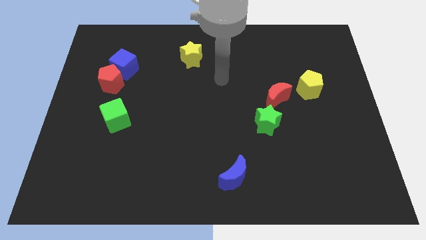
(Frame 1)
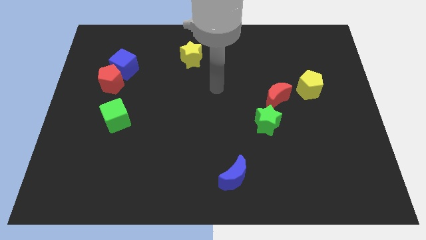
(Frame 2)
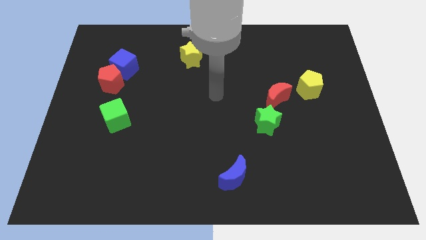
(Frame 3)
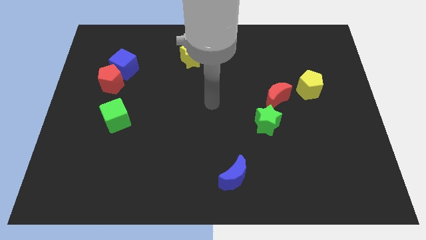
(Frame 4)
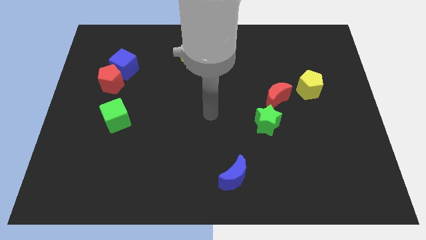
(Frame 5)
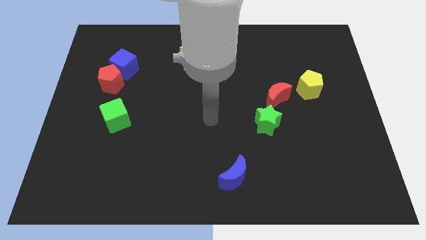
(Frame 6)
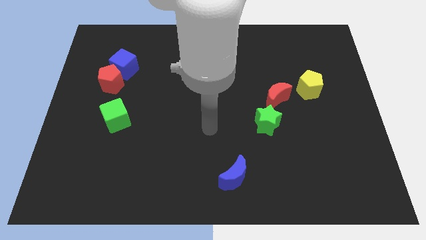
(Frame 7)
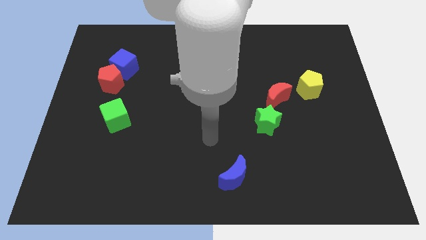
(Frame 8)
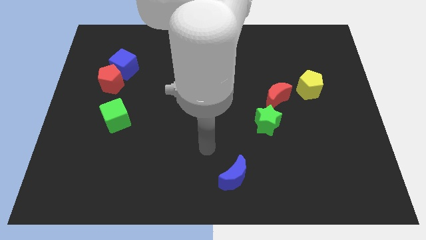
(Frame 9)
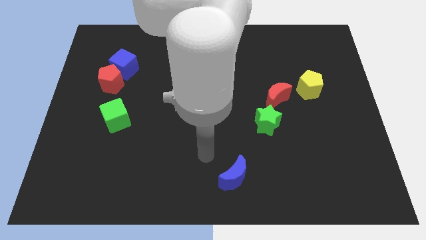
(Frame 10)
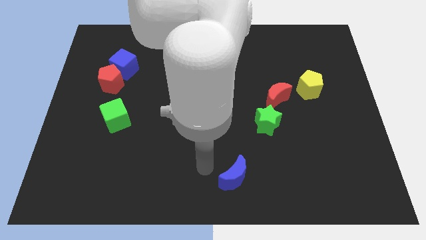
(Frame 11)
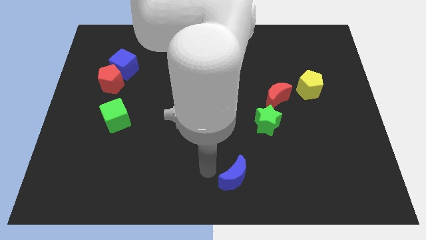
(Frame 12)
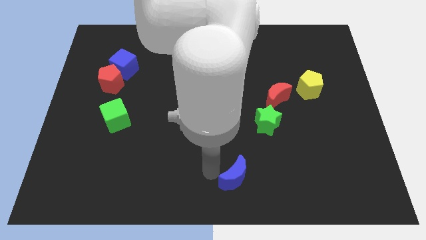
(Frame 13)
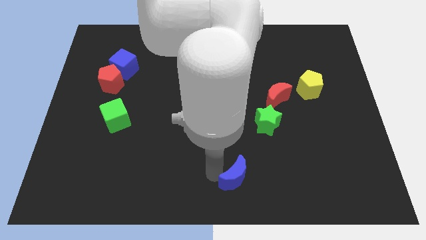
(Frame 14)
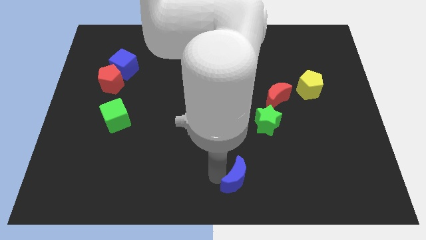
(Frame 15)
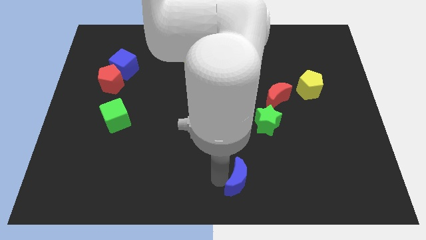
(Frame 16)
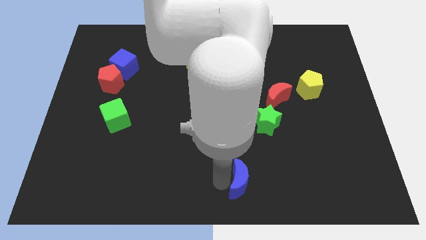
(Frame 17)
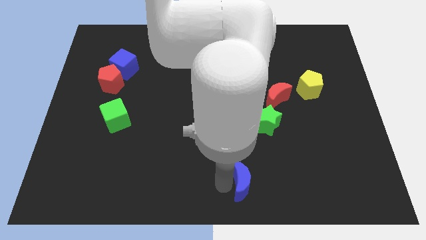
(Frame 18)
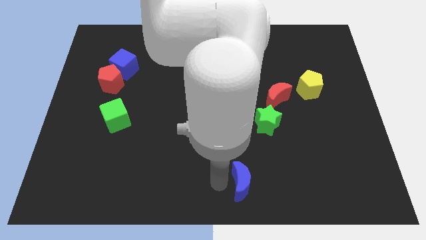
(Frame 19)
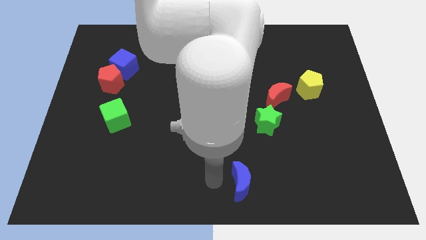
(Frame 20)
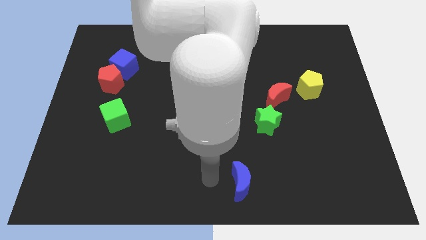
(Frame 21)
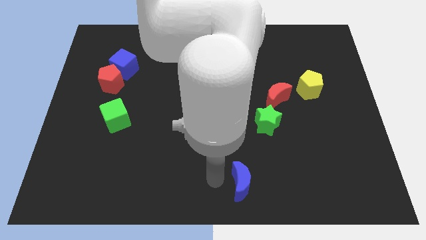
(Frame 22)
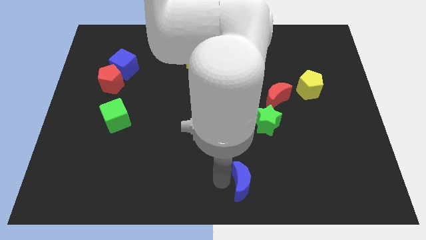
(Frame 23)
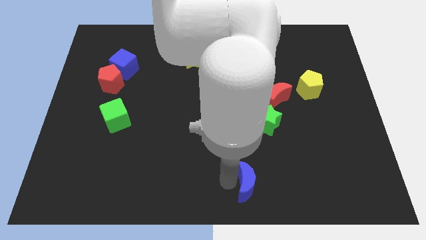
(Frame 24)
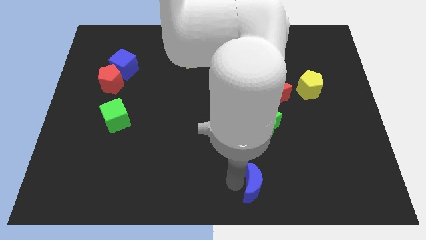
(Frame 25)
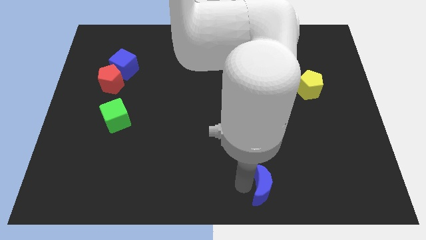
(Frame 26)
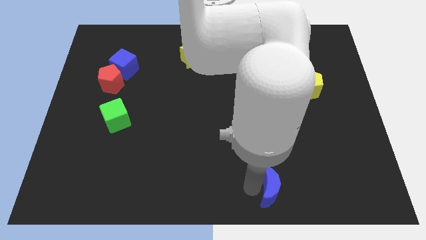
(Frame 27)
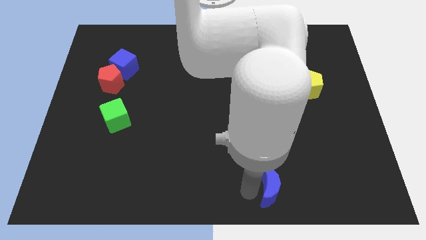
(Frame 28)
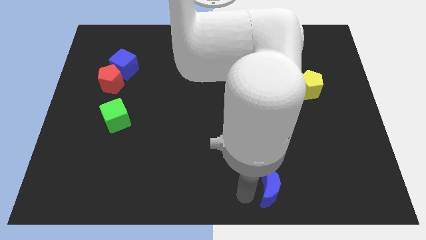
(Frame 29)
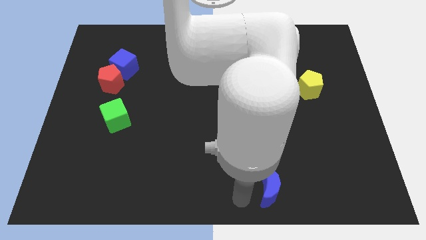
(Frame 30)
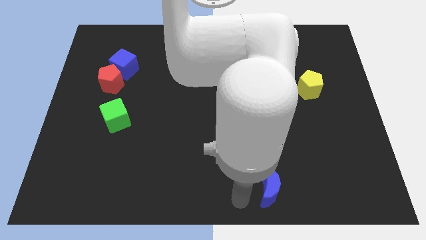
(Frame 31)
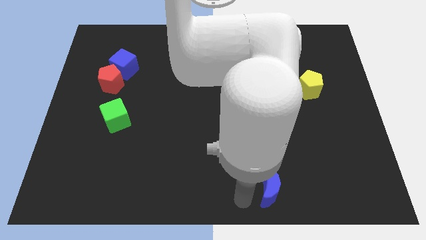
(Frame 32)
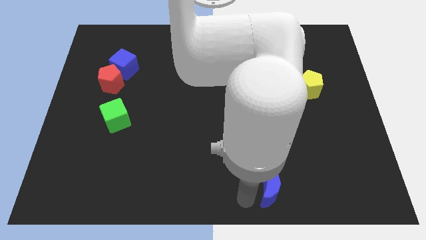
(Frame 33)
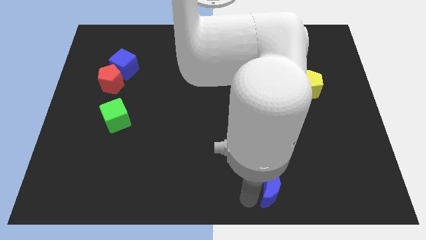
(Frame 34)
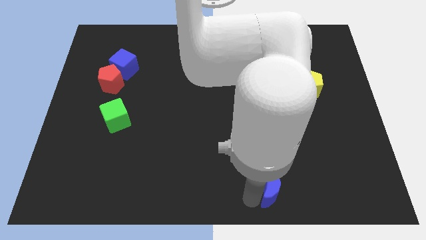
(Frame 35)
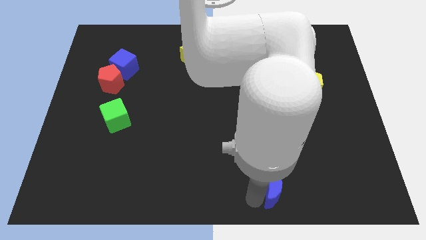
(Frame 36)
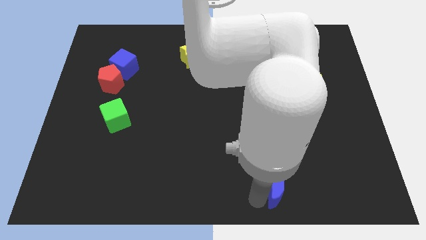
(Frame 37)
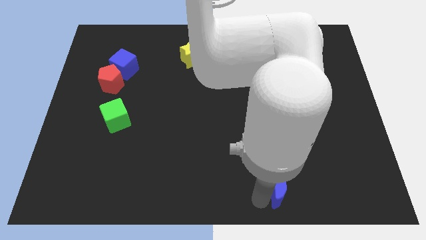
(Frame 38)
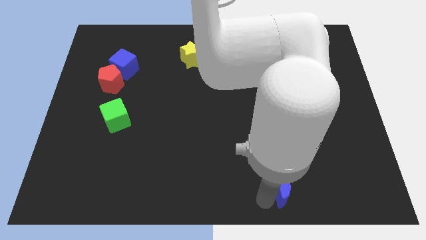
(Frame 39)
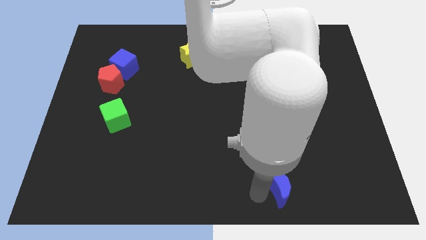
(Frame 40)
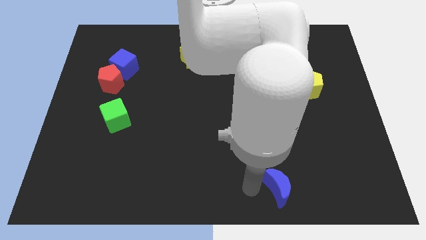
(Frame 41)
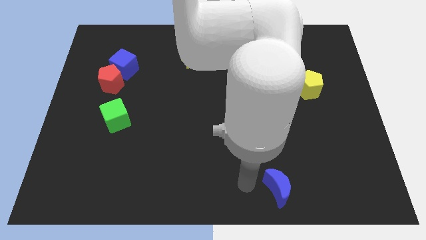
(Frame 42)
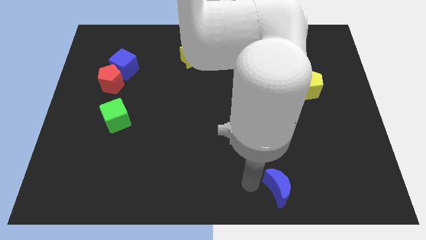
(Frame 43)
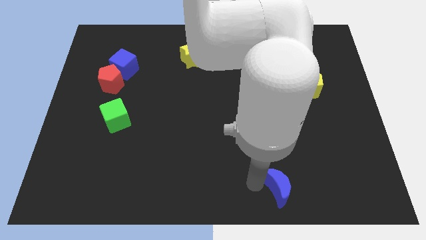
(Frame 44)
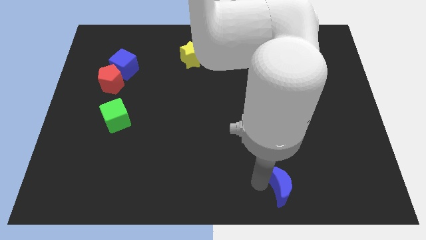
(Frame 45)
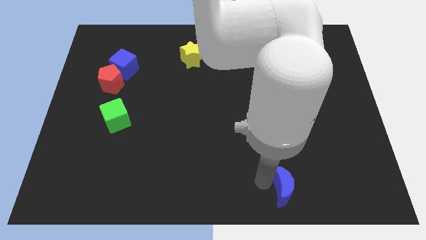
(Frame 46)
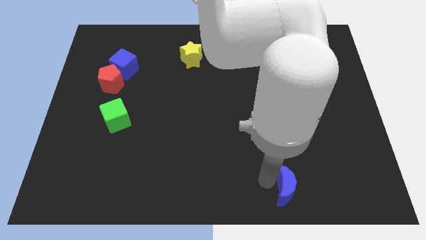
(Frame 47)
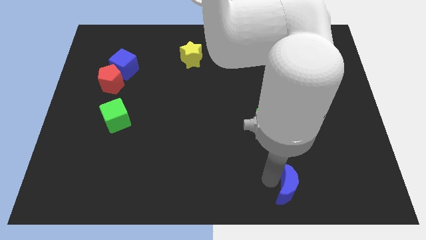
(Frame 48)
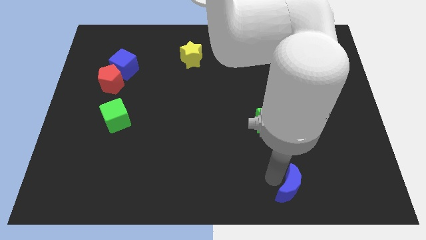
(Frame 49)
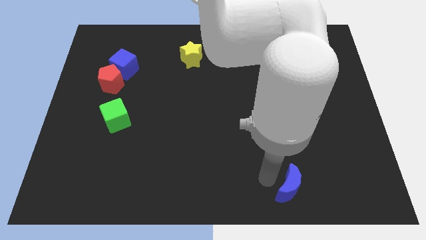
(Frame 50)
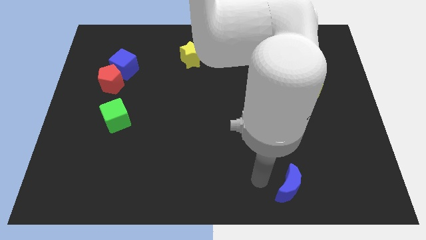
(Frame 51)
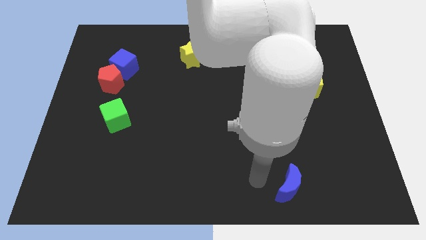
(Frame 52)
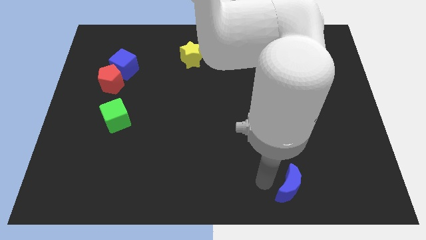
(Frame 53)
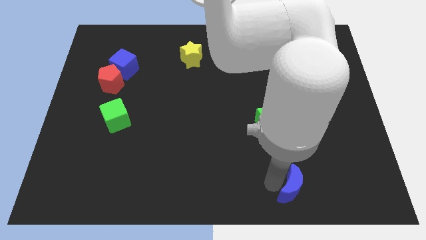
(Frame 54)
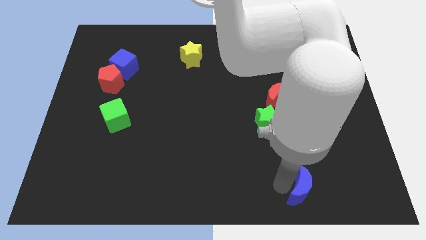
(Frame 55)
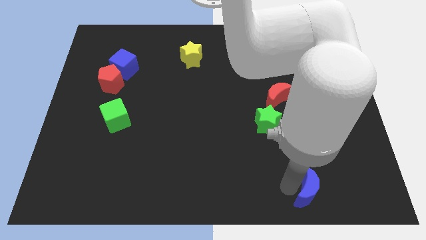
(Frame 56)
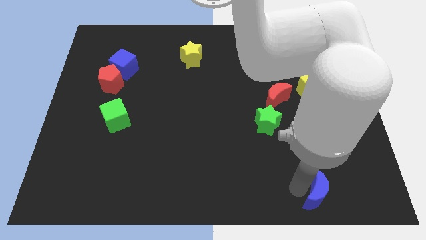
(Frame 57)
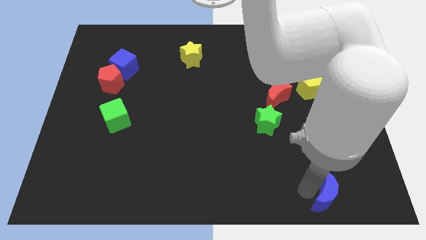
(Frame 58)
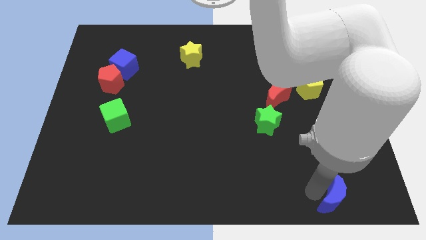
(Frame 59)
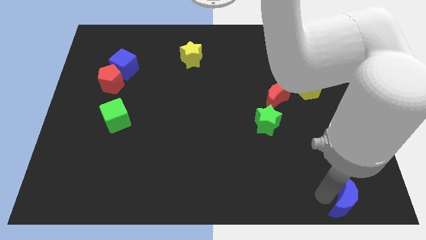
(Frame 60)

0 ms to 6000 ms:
slide the blue moon to the bottom right corner

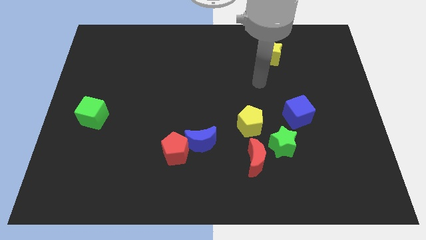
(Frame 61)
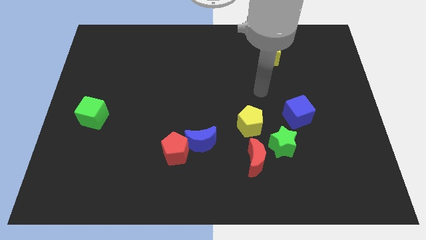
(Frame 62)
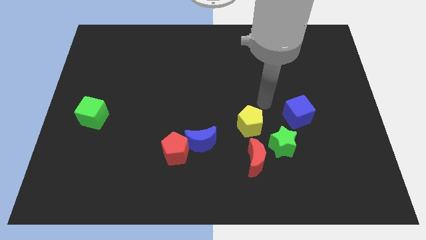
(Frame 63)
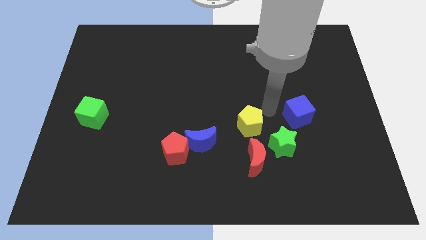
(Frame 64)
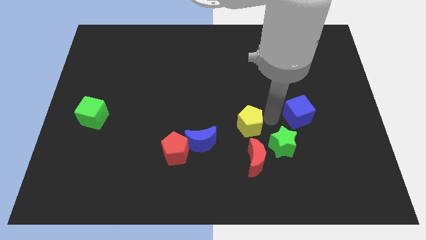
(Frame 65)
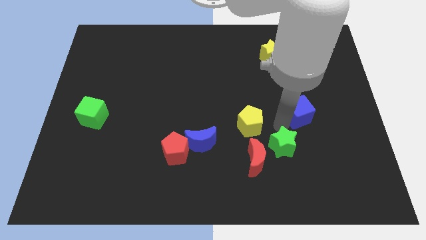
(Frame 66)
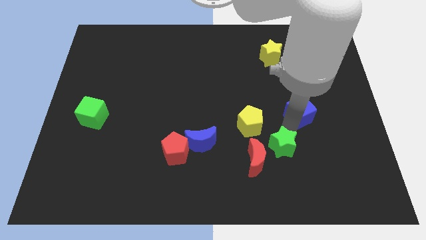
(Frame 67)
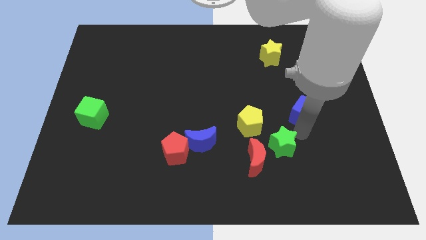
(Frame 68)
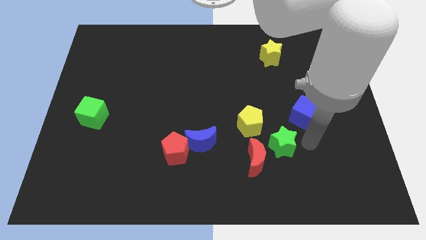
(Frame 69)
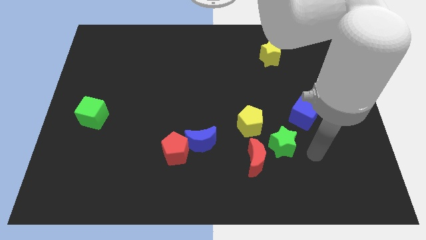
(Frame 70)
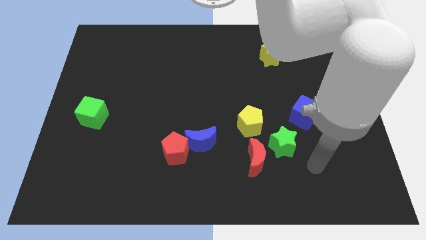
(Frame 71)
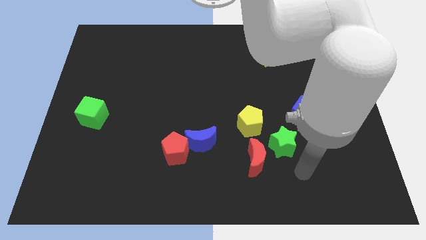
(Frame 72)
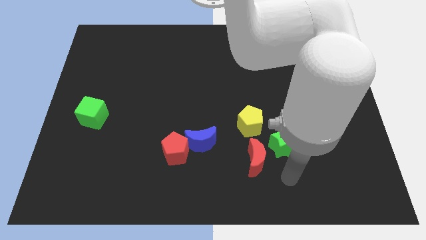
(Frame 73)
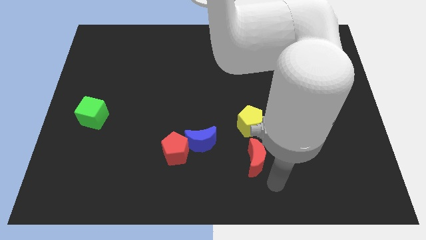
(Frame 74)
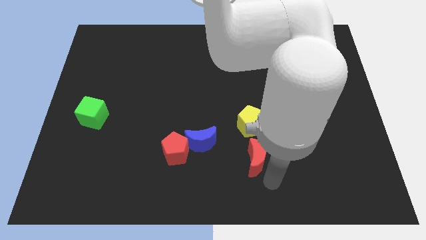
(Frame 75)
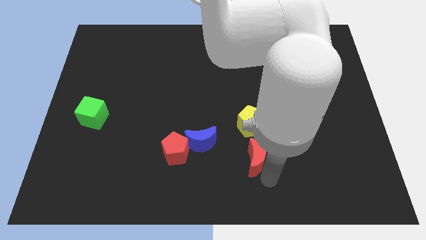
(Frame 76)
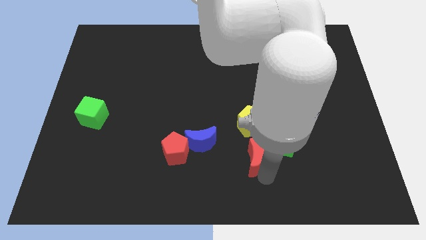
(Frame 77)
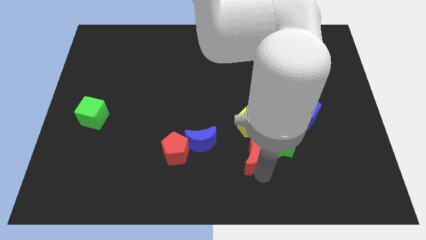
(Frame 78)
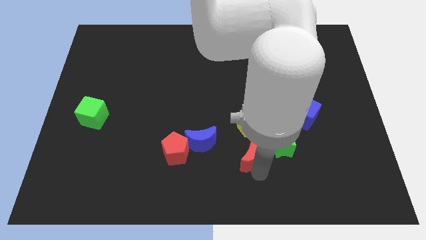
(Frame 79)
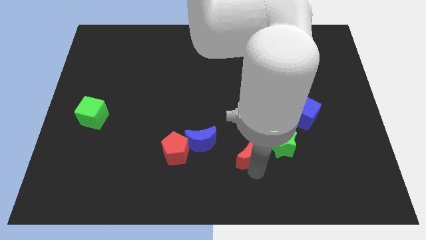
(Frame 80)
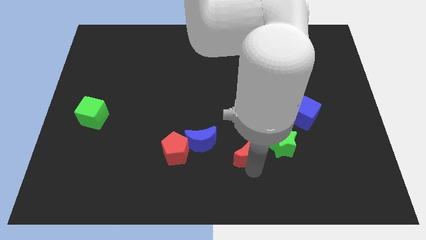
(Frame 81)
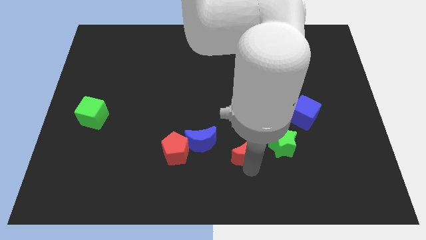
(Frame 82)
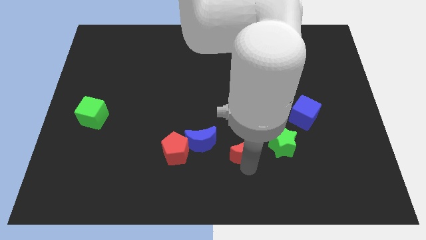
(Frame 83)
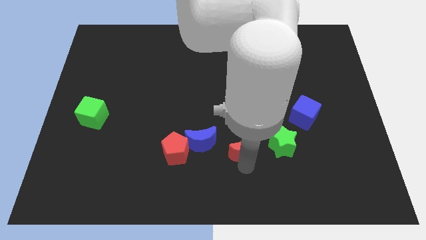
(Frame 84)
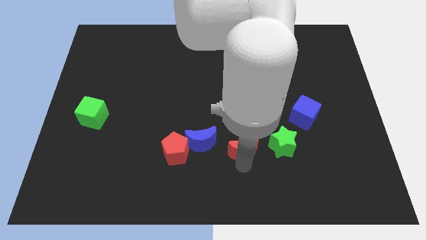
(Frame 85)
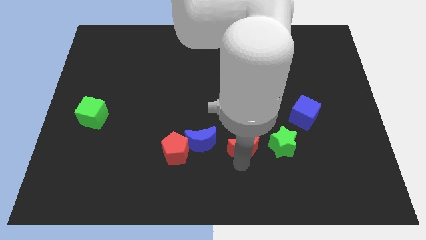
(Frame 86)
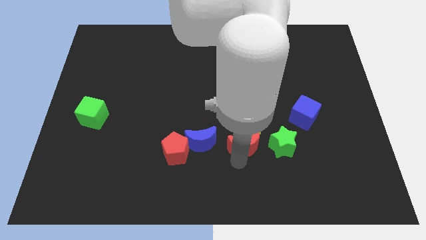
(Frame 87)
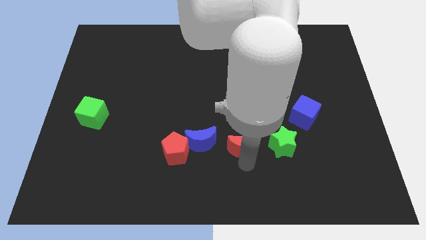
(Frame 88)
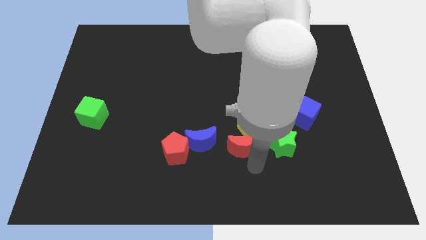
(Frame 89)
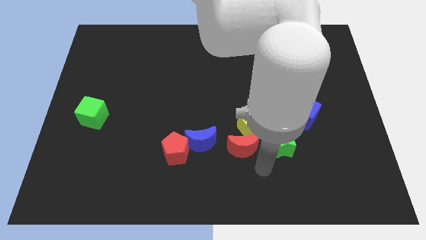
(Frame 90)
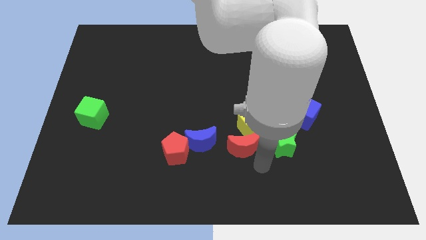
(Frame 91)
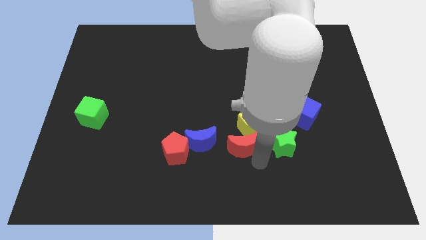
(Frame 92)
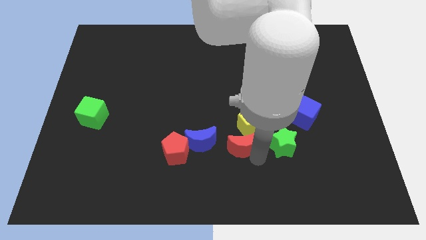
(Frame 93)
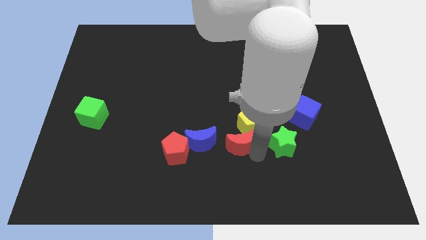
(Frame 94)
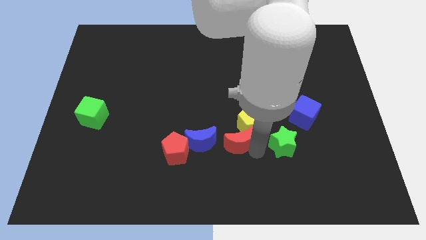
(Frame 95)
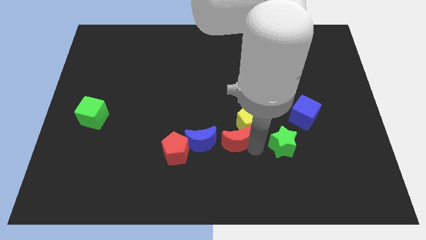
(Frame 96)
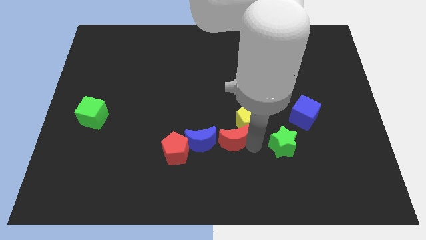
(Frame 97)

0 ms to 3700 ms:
push the red moon to the center
